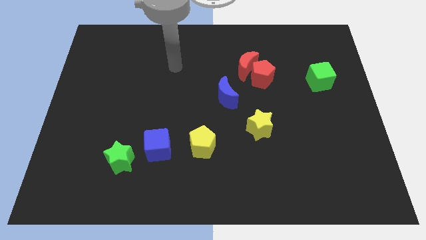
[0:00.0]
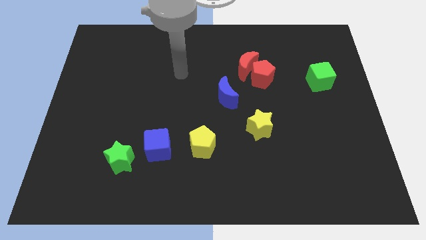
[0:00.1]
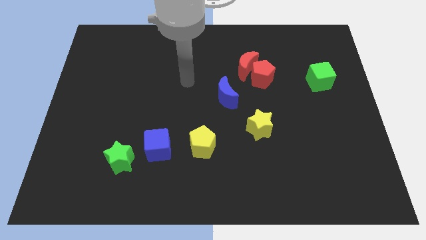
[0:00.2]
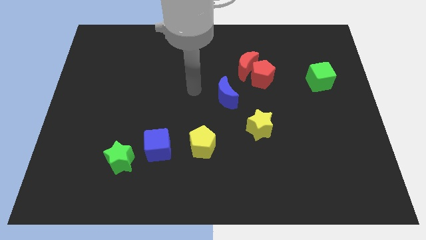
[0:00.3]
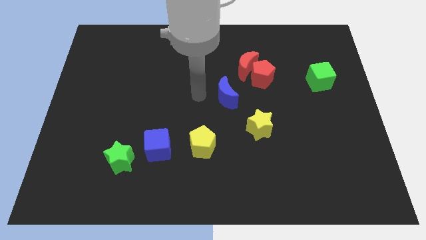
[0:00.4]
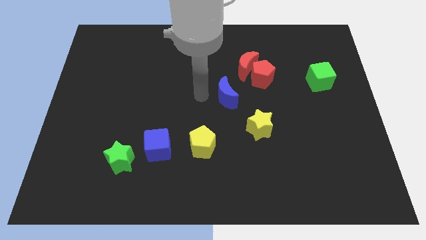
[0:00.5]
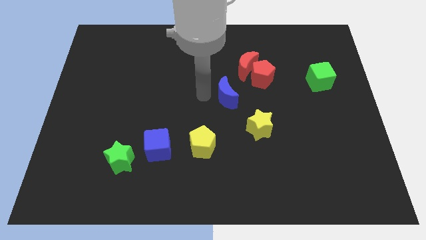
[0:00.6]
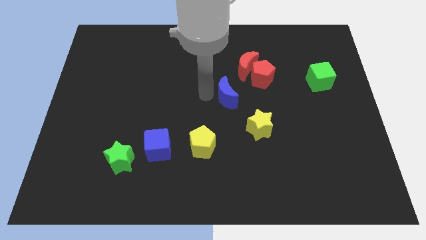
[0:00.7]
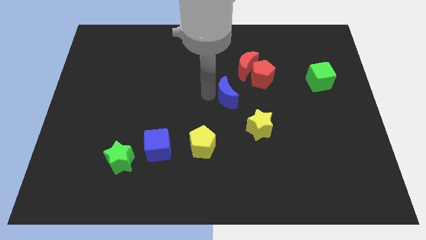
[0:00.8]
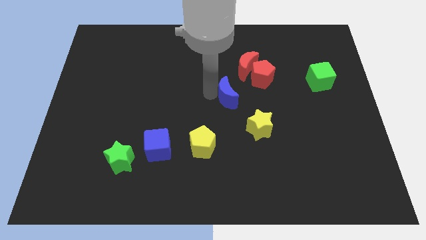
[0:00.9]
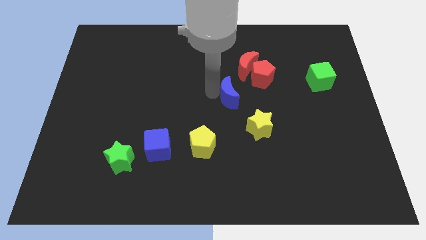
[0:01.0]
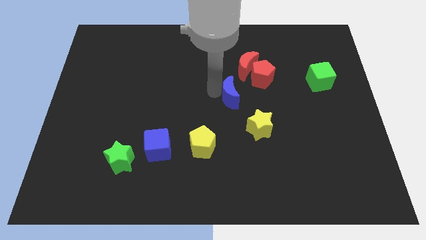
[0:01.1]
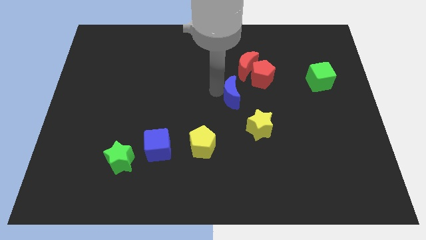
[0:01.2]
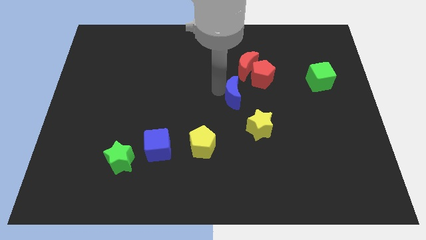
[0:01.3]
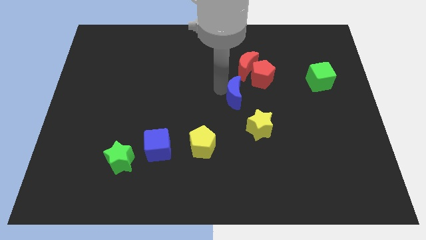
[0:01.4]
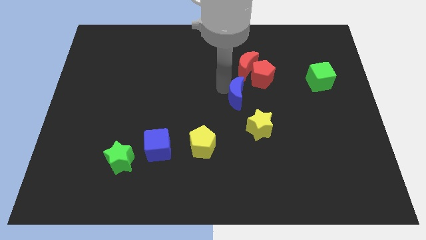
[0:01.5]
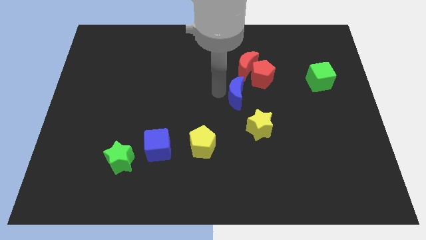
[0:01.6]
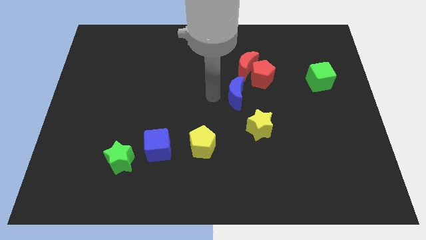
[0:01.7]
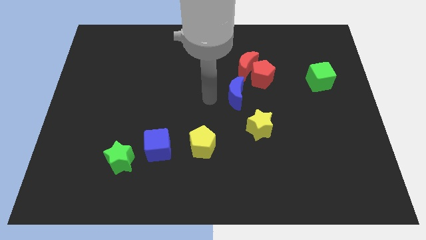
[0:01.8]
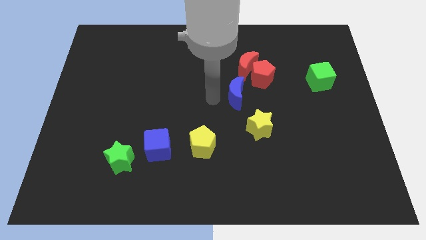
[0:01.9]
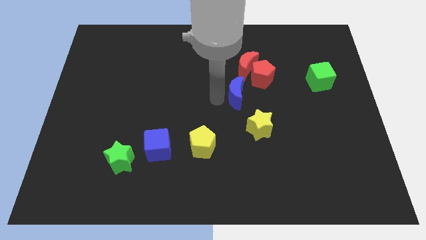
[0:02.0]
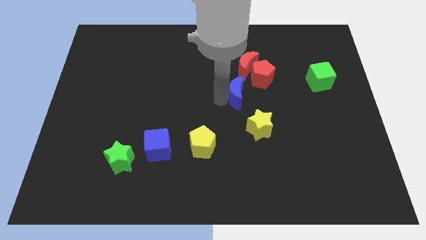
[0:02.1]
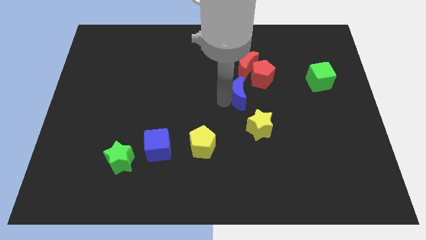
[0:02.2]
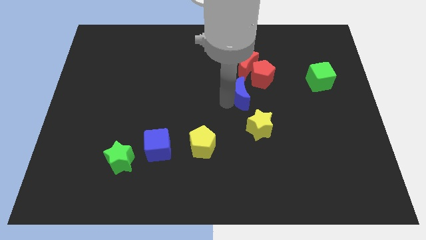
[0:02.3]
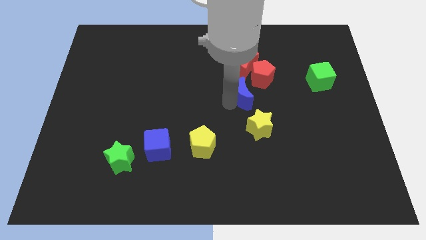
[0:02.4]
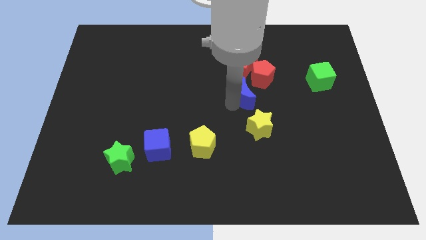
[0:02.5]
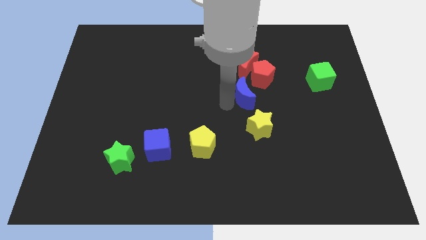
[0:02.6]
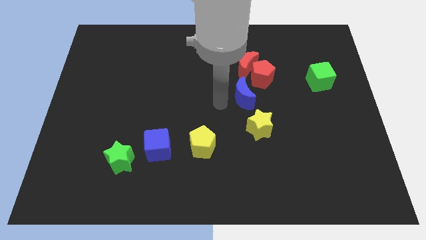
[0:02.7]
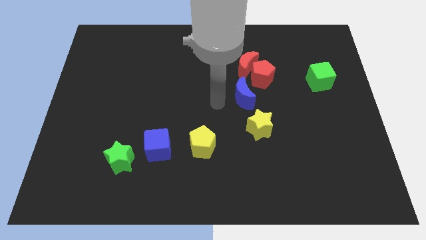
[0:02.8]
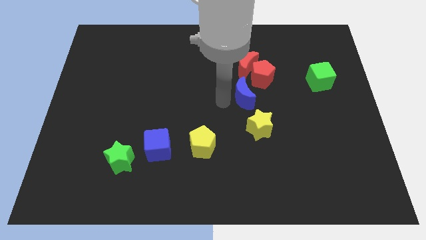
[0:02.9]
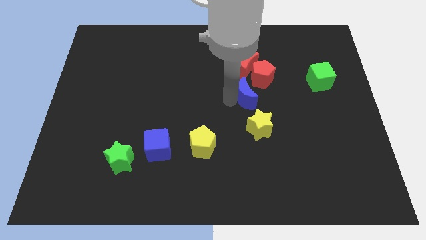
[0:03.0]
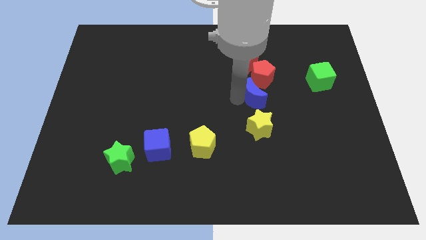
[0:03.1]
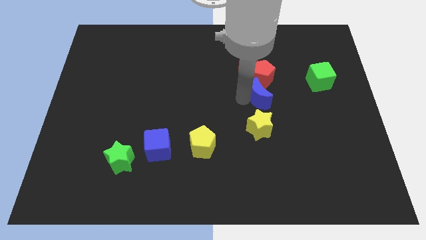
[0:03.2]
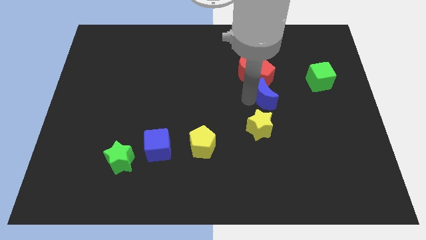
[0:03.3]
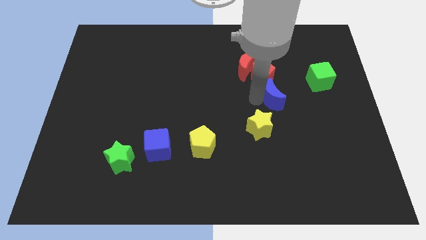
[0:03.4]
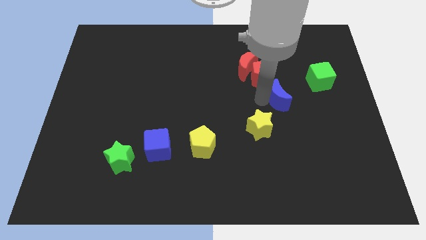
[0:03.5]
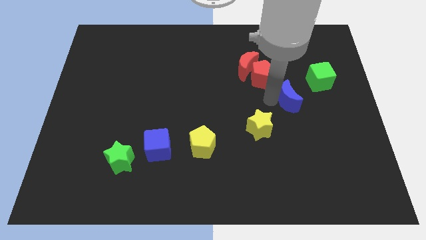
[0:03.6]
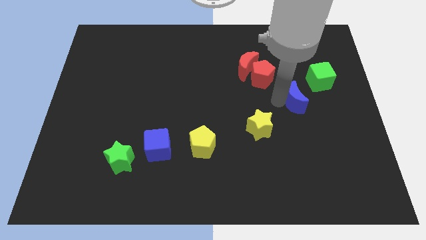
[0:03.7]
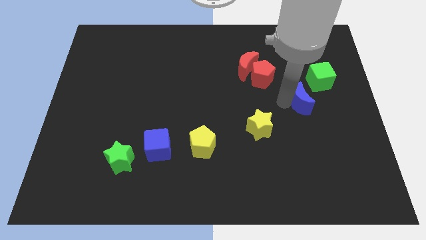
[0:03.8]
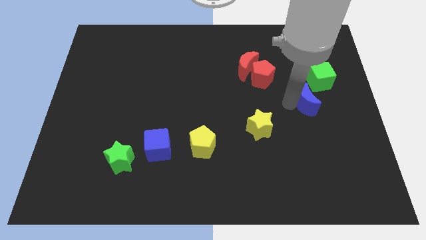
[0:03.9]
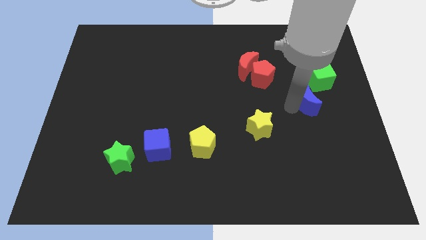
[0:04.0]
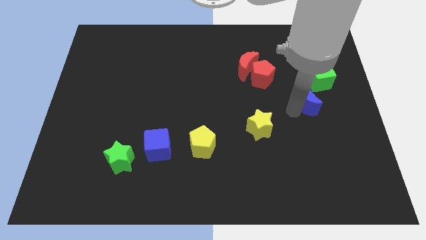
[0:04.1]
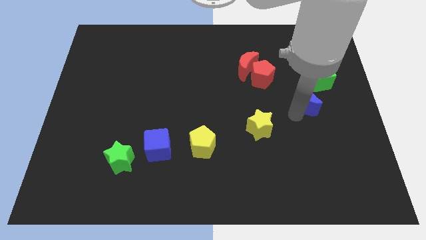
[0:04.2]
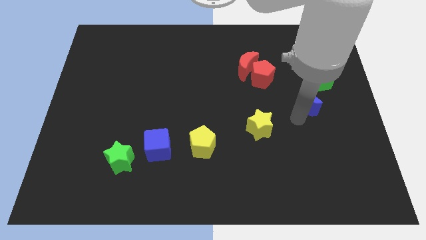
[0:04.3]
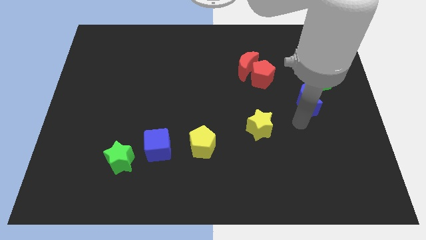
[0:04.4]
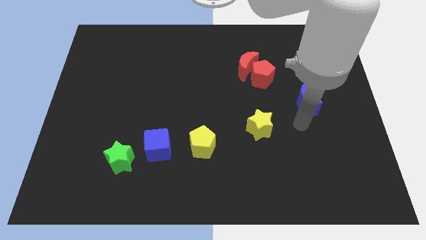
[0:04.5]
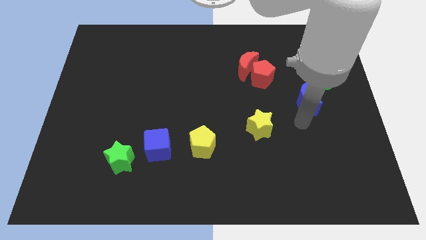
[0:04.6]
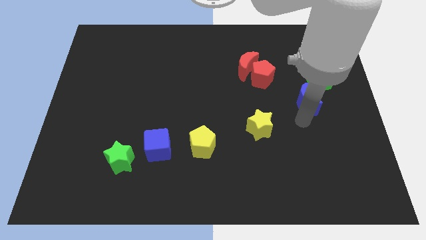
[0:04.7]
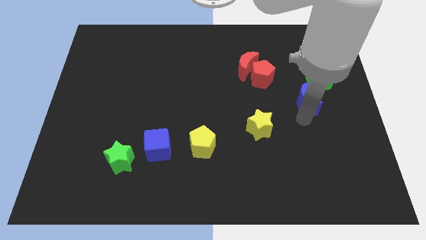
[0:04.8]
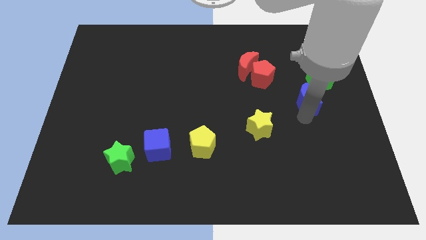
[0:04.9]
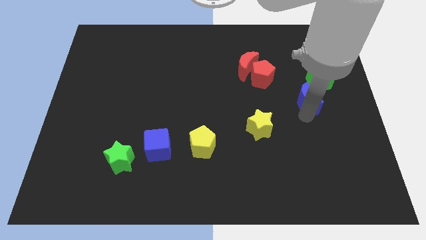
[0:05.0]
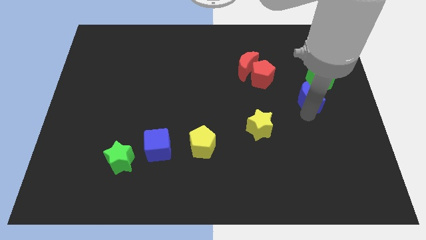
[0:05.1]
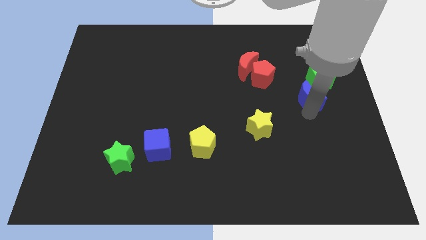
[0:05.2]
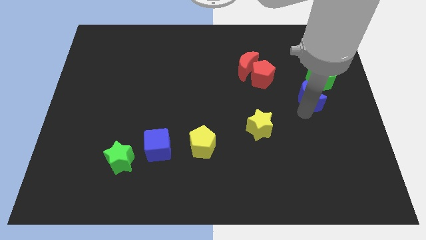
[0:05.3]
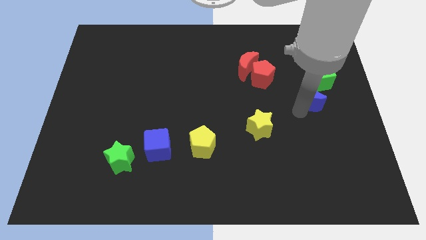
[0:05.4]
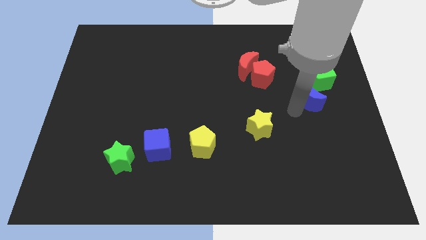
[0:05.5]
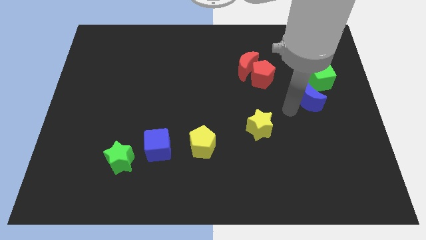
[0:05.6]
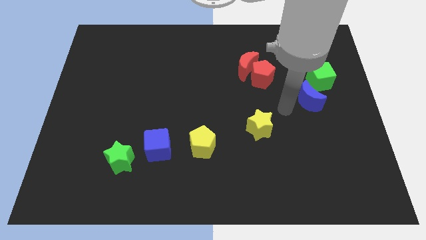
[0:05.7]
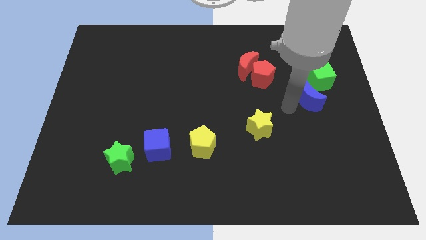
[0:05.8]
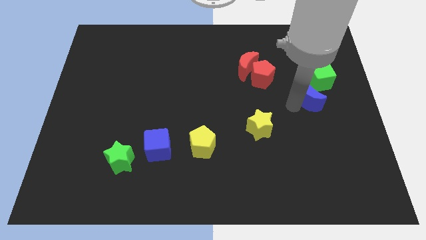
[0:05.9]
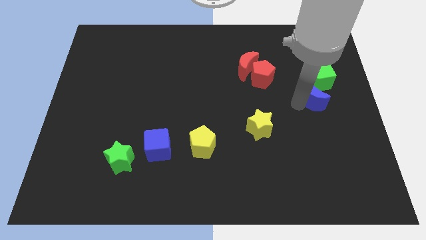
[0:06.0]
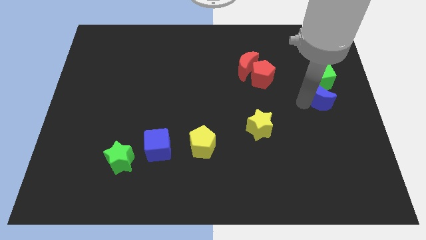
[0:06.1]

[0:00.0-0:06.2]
move the blue moon to the right side

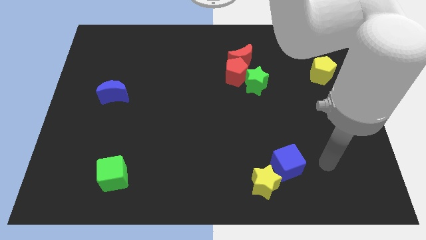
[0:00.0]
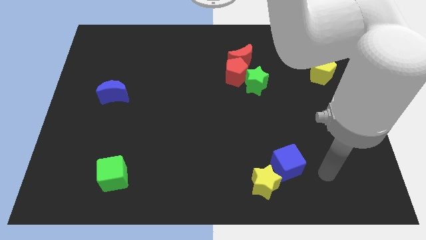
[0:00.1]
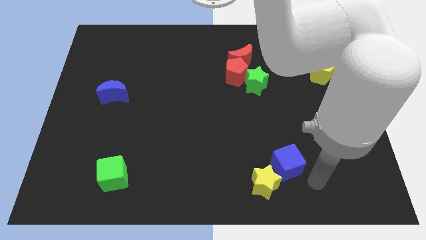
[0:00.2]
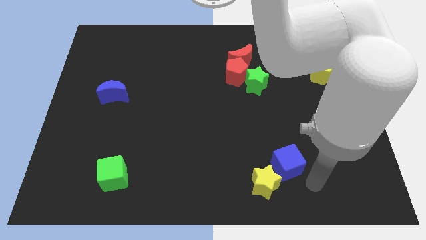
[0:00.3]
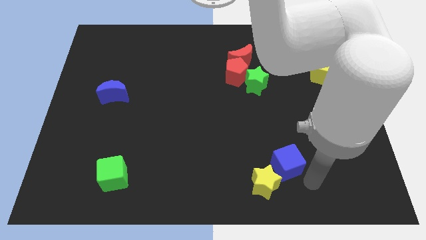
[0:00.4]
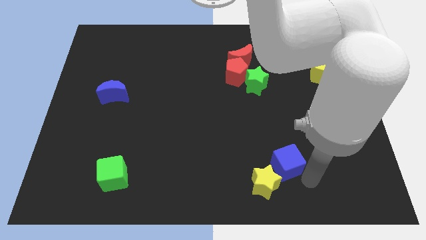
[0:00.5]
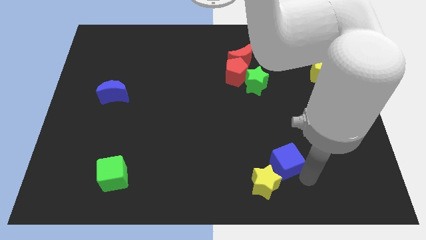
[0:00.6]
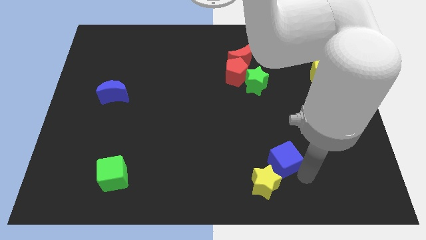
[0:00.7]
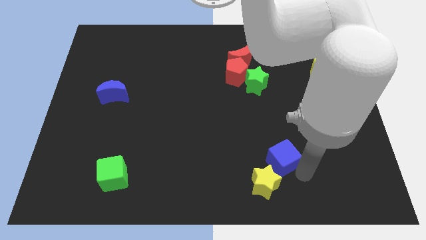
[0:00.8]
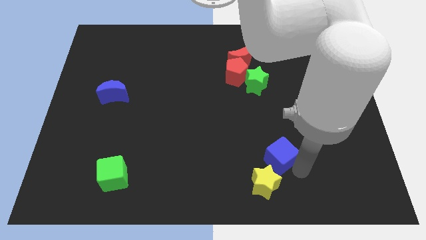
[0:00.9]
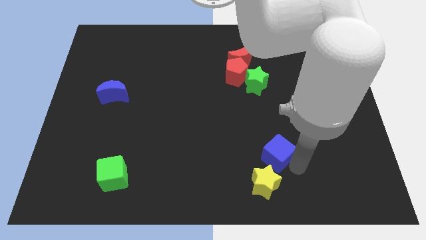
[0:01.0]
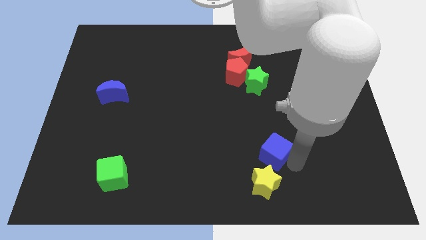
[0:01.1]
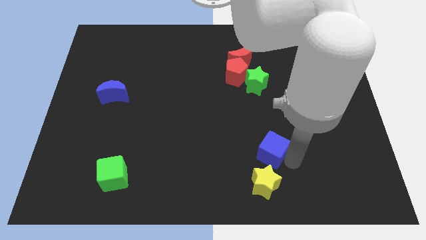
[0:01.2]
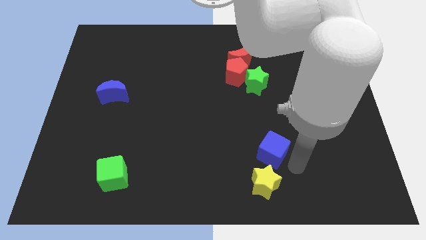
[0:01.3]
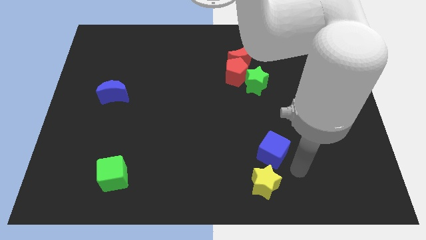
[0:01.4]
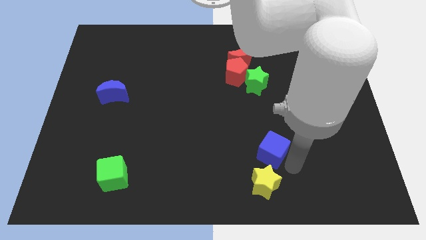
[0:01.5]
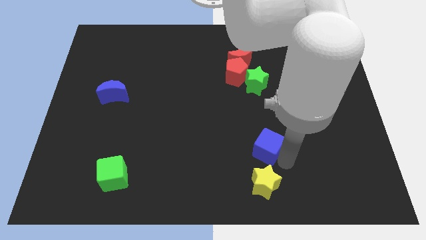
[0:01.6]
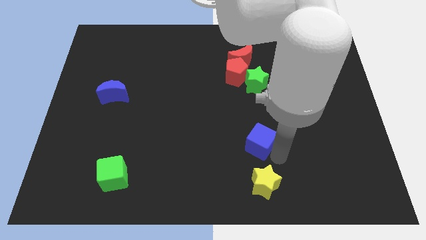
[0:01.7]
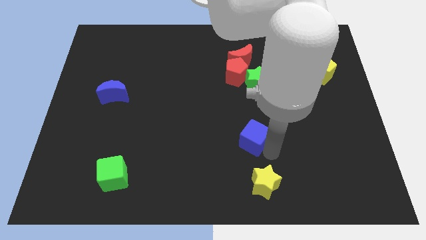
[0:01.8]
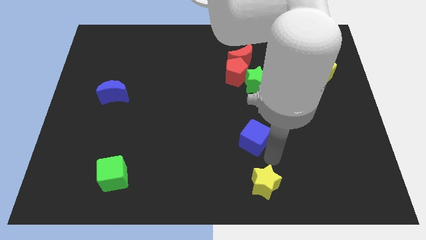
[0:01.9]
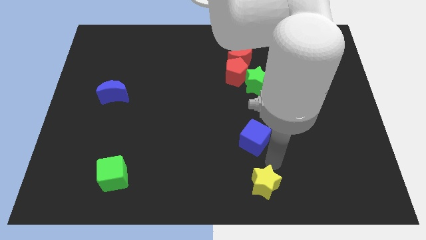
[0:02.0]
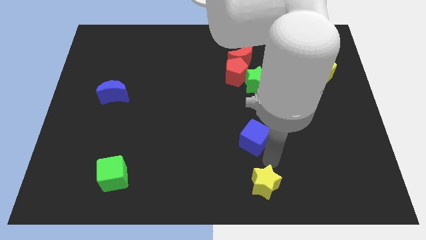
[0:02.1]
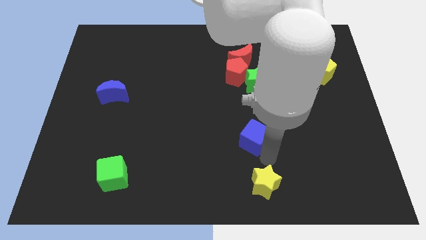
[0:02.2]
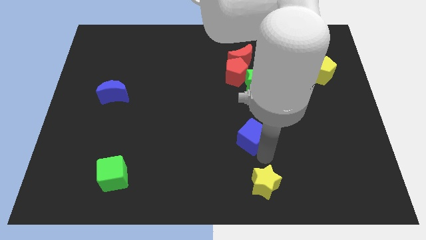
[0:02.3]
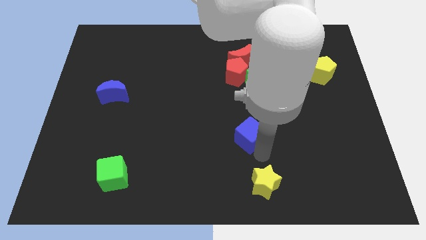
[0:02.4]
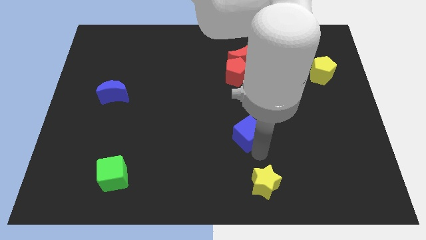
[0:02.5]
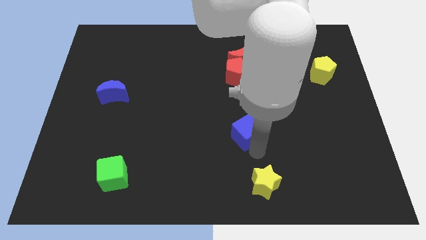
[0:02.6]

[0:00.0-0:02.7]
put the blue cube to the center of the board
